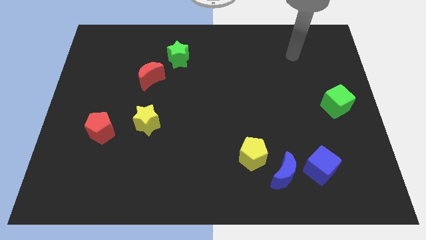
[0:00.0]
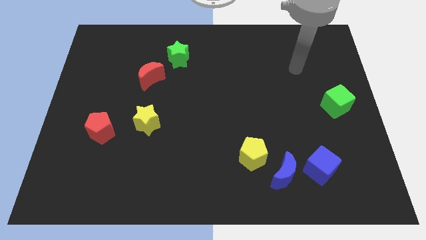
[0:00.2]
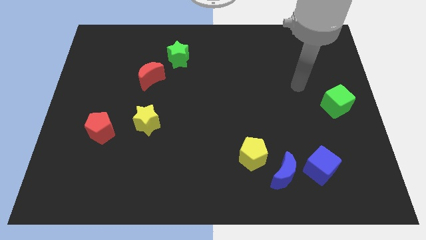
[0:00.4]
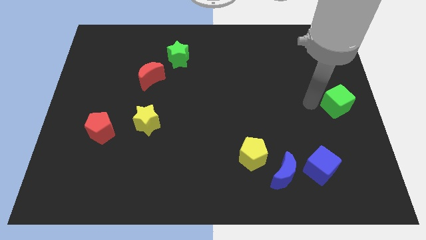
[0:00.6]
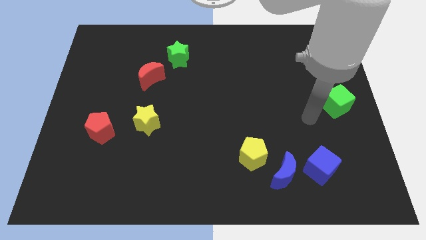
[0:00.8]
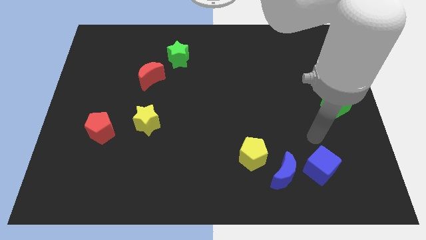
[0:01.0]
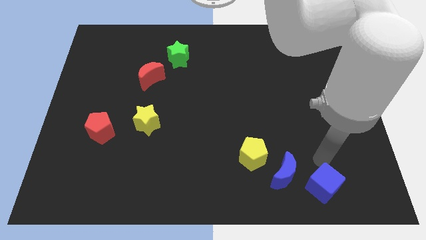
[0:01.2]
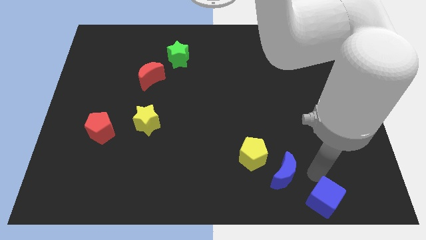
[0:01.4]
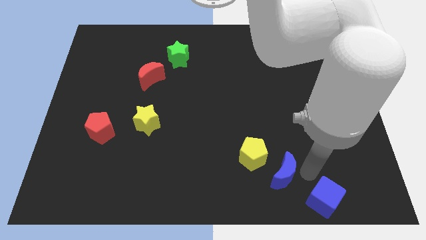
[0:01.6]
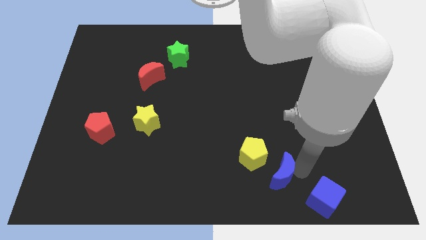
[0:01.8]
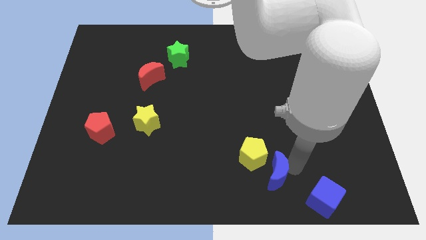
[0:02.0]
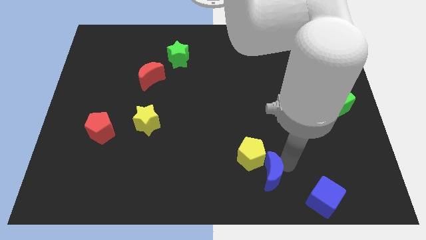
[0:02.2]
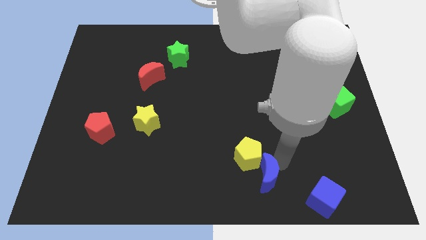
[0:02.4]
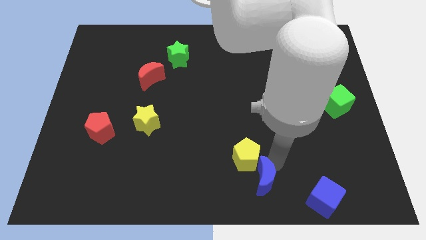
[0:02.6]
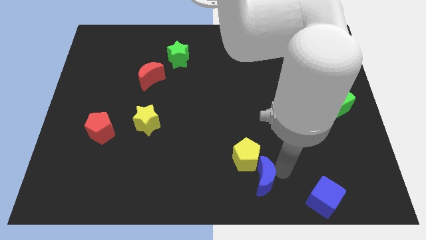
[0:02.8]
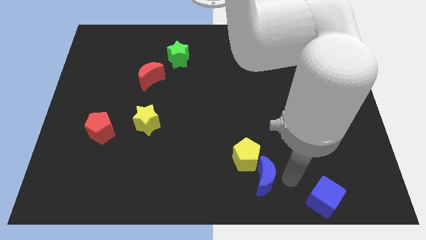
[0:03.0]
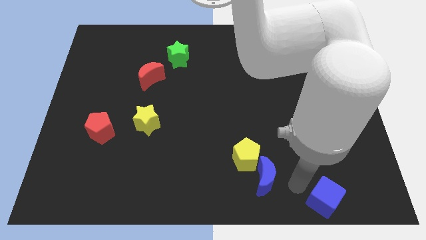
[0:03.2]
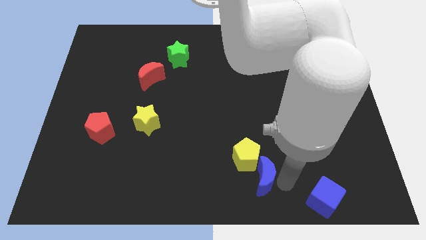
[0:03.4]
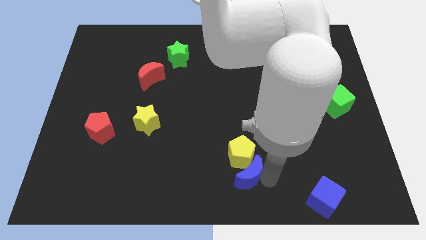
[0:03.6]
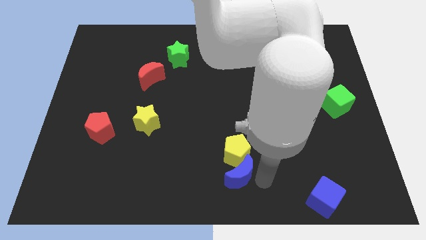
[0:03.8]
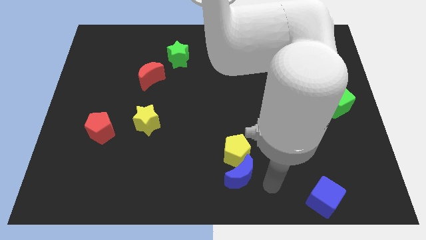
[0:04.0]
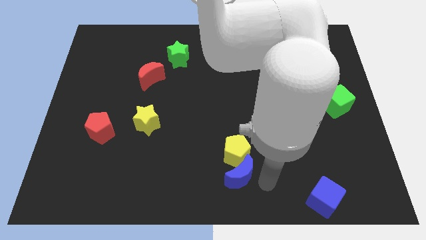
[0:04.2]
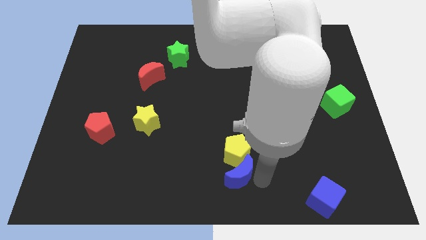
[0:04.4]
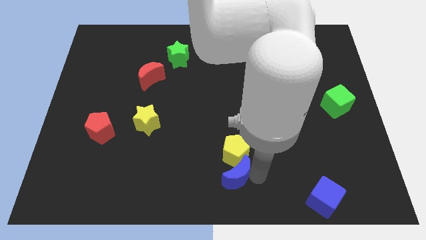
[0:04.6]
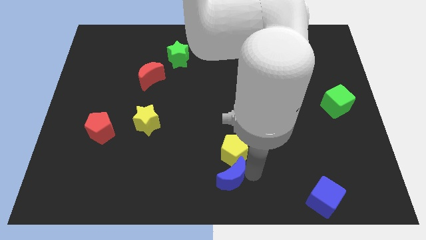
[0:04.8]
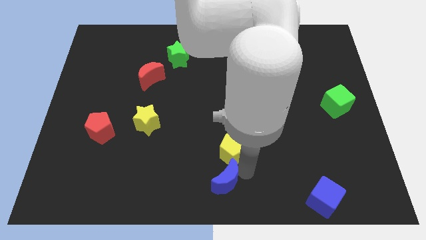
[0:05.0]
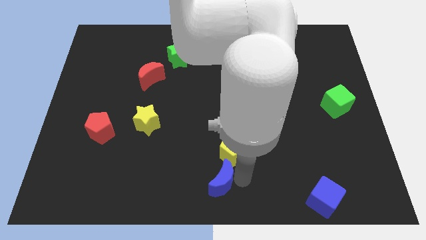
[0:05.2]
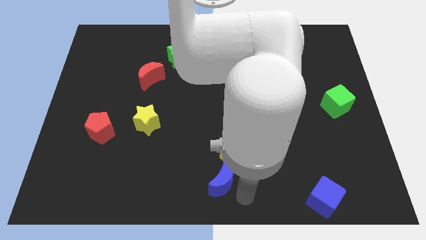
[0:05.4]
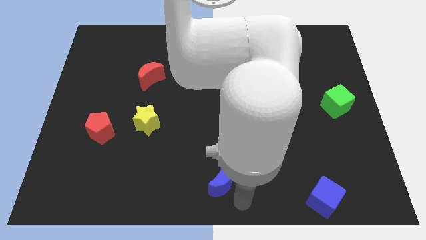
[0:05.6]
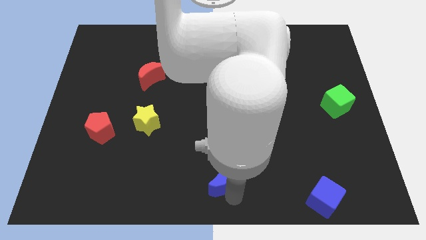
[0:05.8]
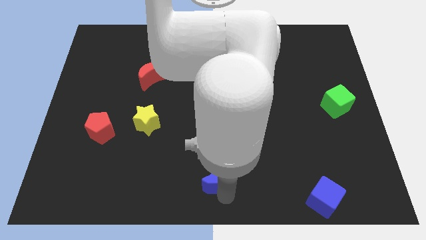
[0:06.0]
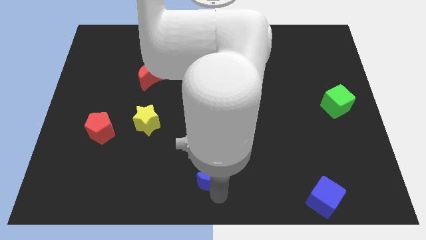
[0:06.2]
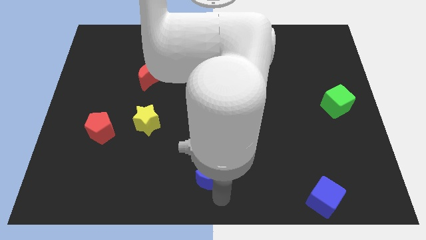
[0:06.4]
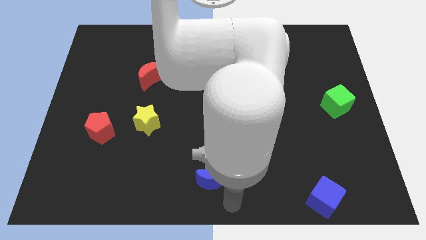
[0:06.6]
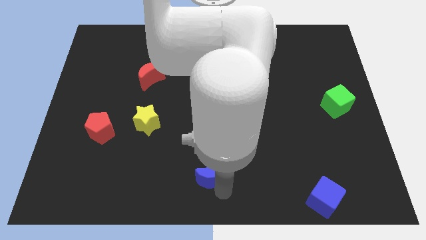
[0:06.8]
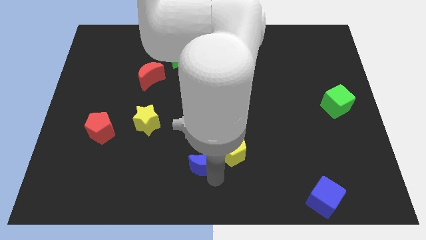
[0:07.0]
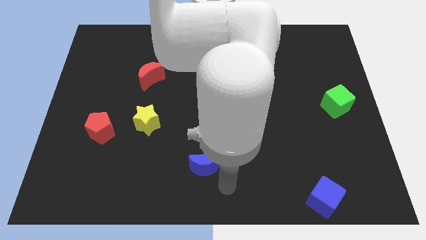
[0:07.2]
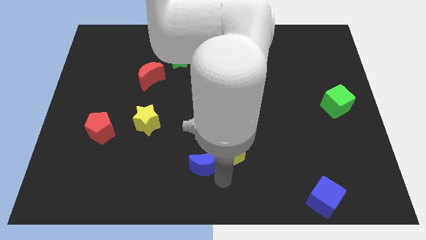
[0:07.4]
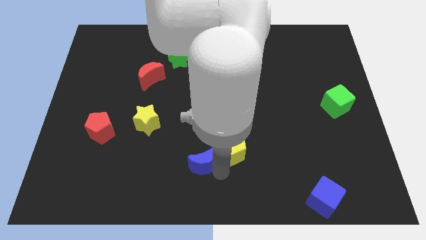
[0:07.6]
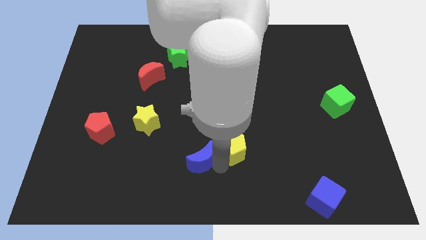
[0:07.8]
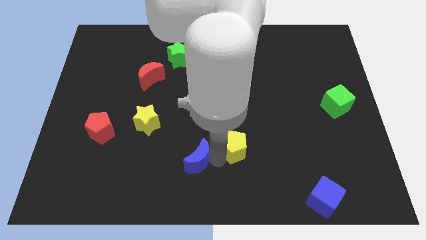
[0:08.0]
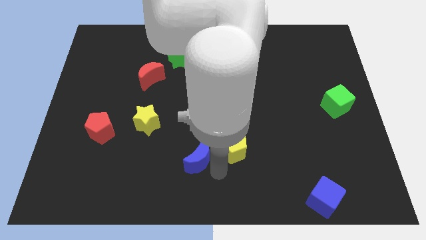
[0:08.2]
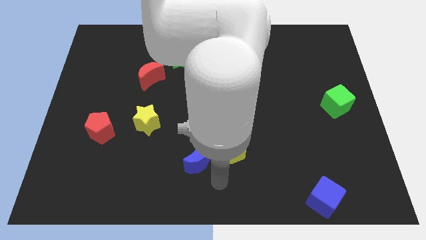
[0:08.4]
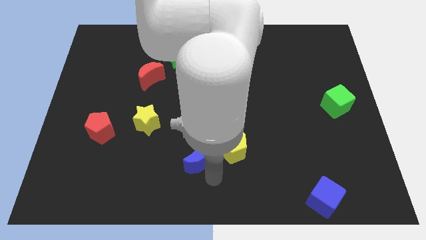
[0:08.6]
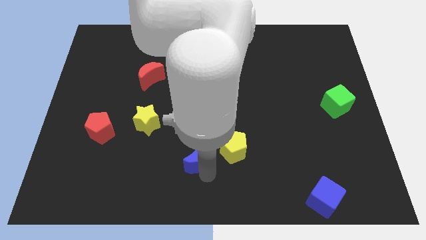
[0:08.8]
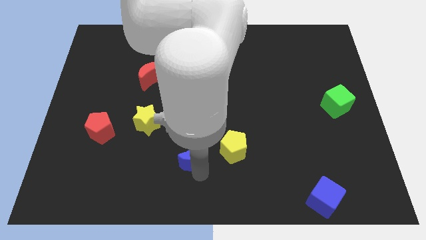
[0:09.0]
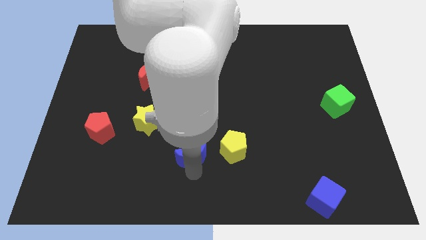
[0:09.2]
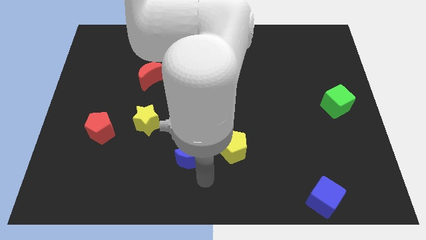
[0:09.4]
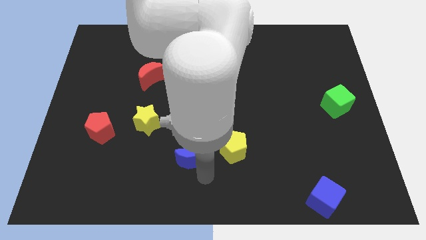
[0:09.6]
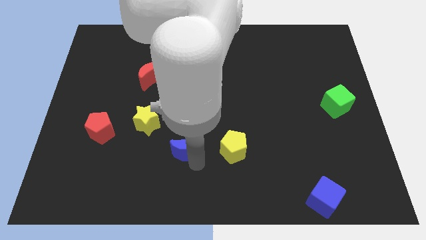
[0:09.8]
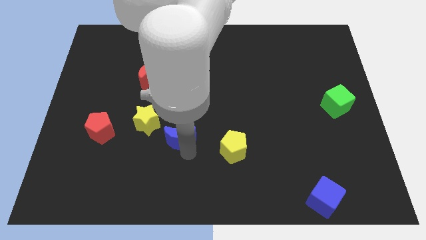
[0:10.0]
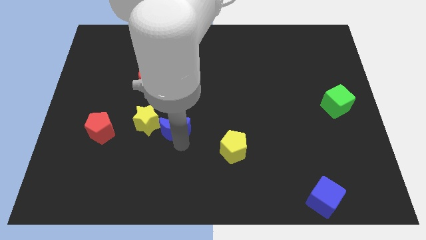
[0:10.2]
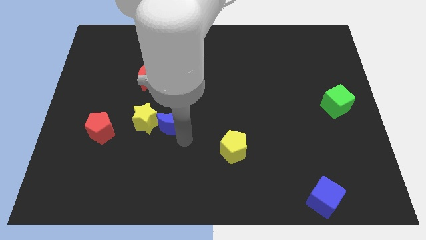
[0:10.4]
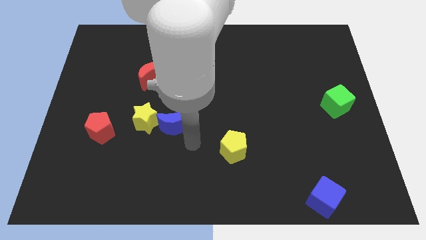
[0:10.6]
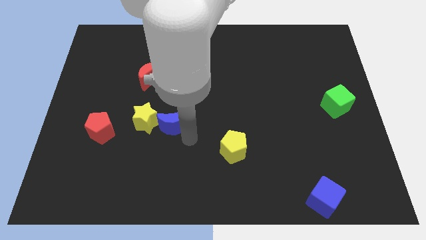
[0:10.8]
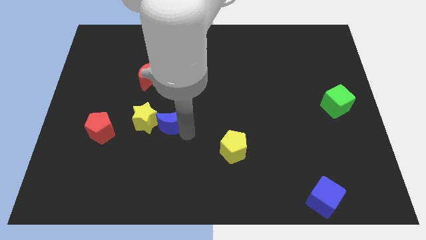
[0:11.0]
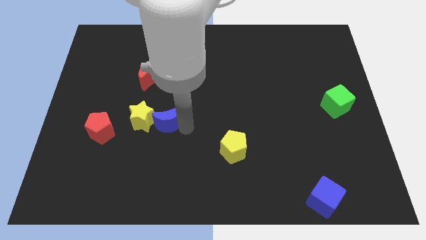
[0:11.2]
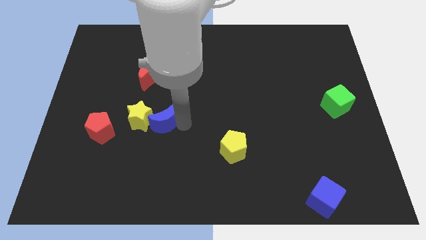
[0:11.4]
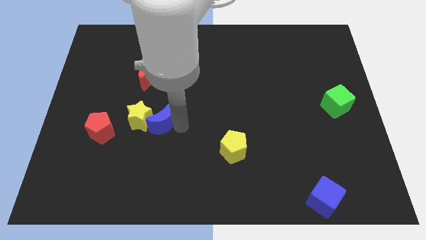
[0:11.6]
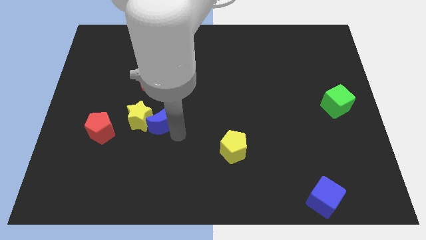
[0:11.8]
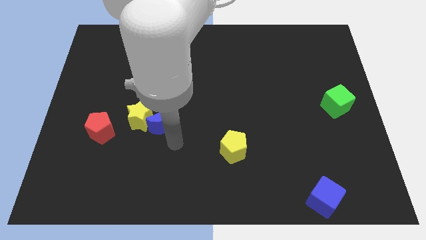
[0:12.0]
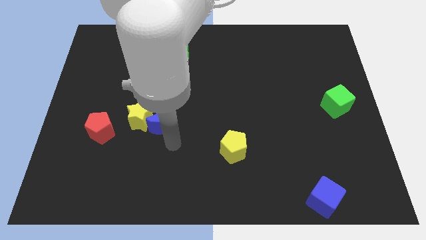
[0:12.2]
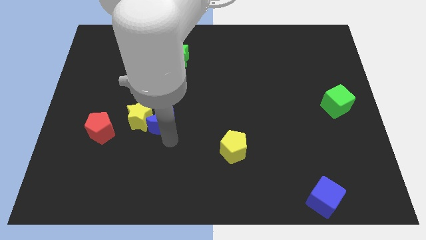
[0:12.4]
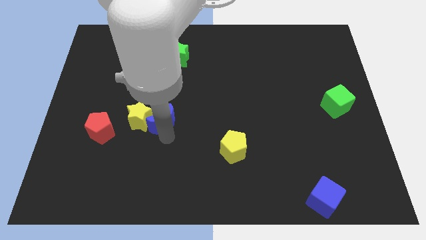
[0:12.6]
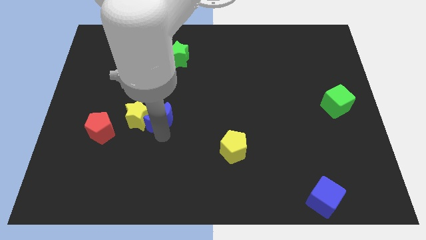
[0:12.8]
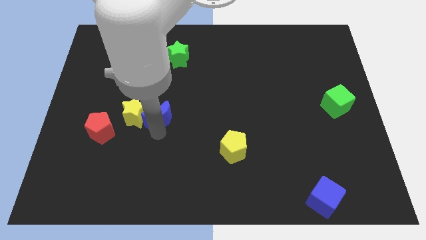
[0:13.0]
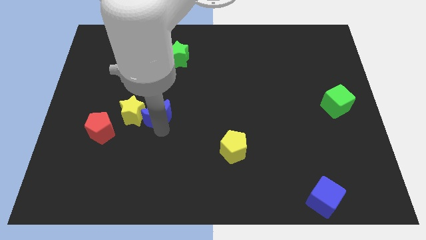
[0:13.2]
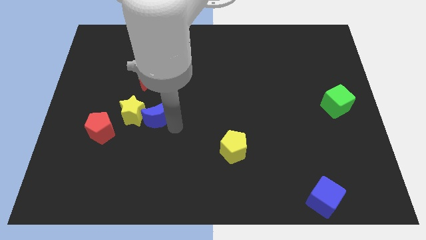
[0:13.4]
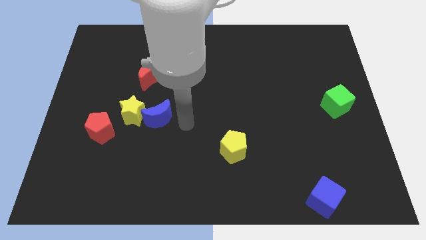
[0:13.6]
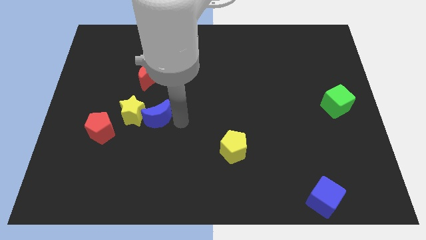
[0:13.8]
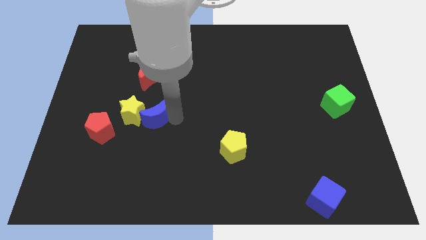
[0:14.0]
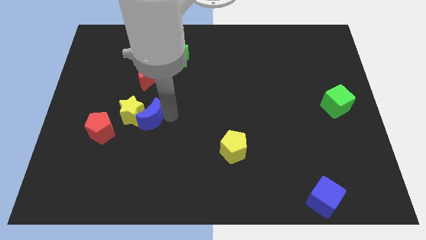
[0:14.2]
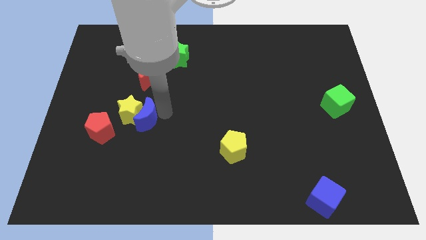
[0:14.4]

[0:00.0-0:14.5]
slide the blue moon to the top right of the red pentagon
